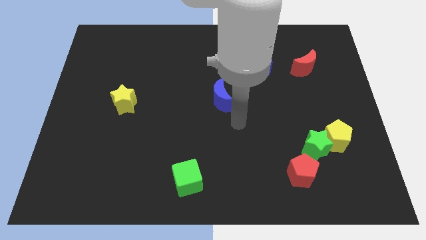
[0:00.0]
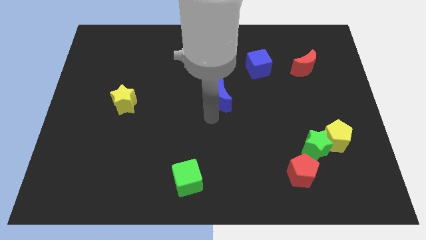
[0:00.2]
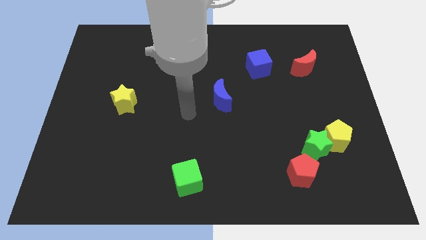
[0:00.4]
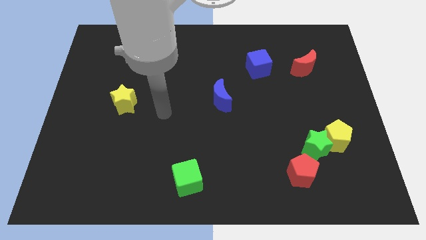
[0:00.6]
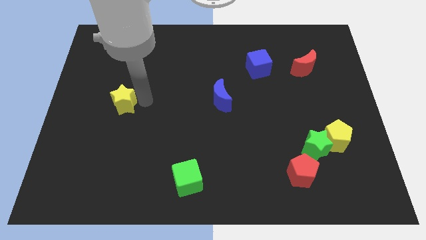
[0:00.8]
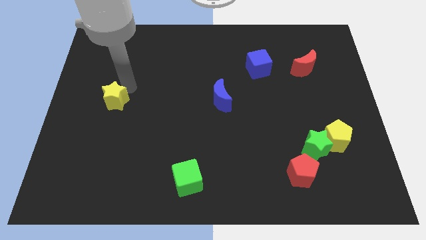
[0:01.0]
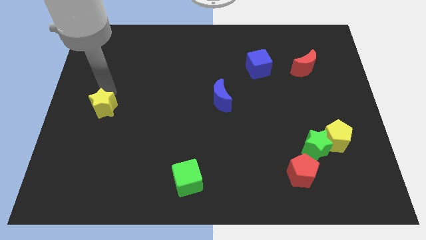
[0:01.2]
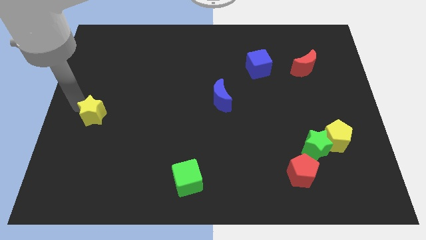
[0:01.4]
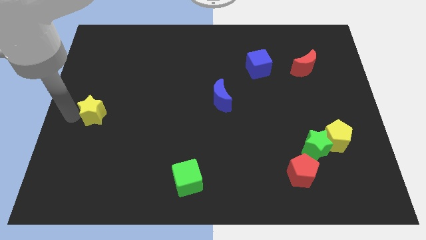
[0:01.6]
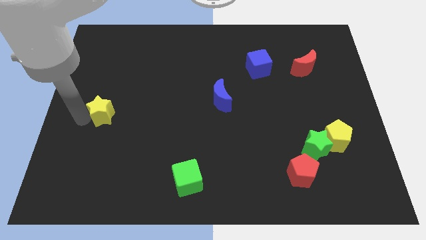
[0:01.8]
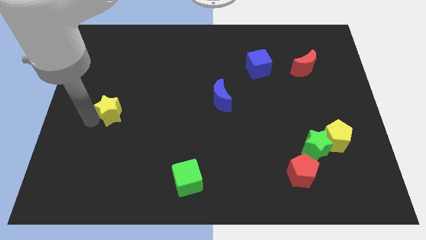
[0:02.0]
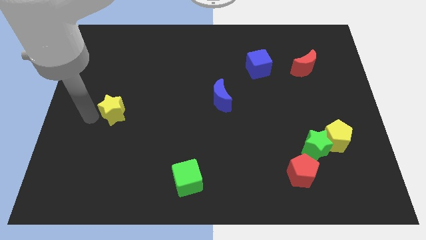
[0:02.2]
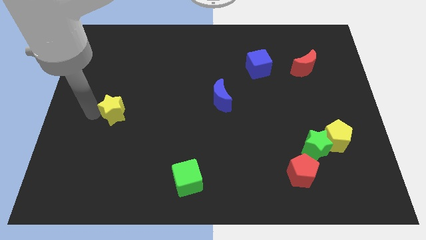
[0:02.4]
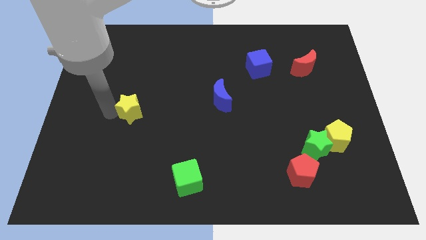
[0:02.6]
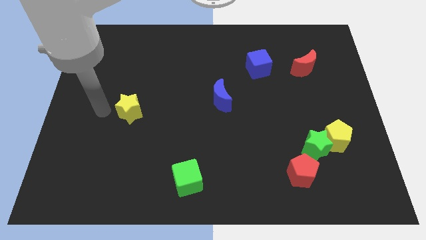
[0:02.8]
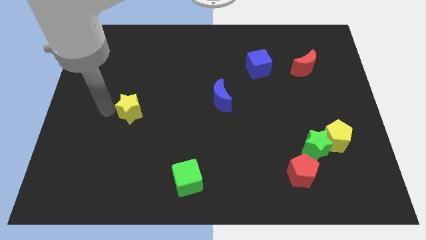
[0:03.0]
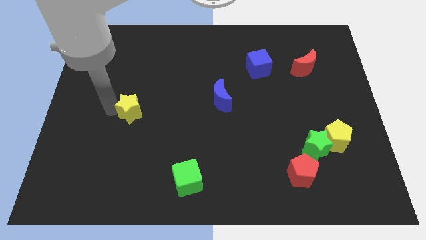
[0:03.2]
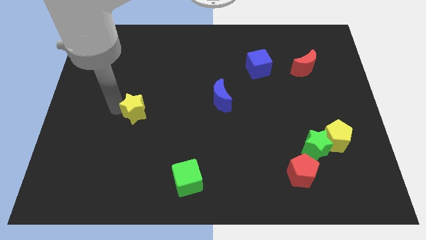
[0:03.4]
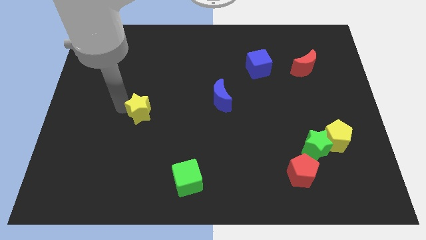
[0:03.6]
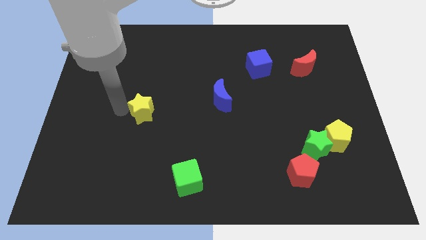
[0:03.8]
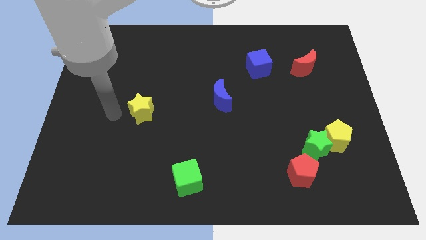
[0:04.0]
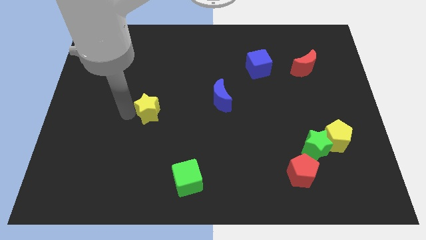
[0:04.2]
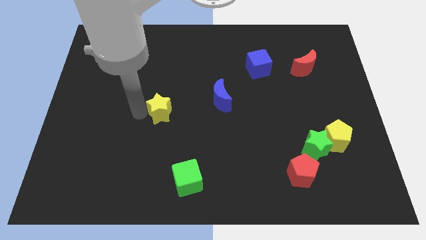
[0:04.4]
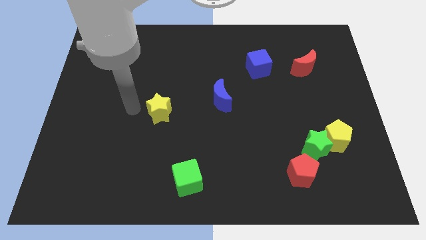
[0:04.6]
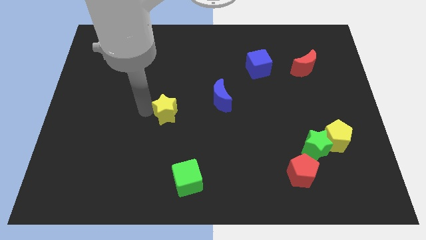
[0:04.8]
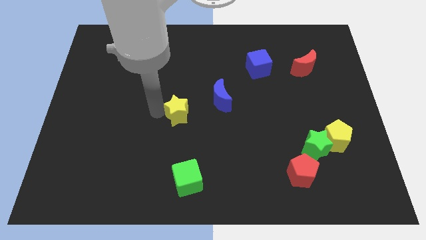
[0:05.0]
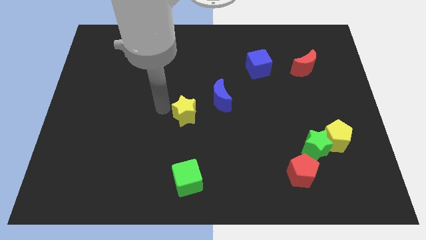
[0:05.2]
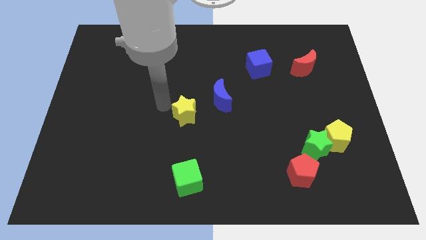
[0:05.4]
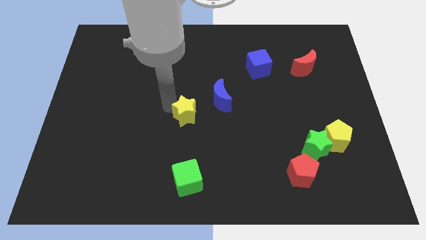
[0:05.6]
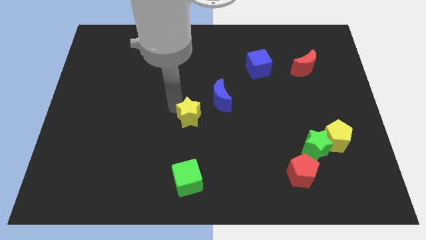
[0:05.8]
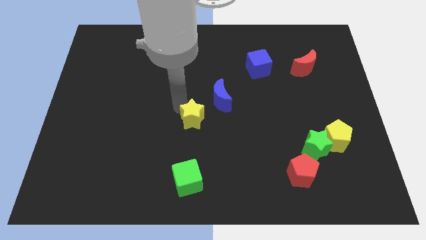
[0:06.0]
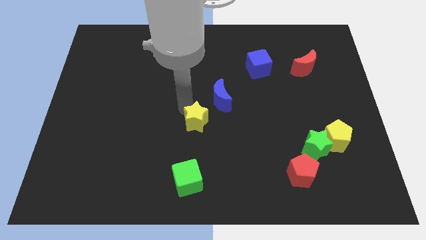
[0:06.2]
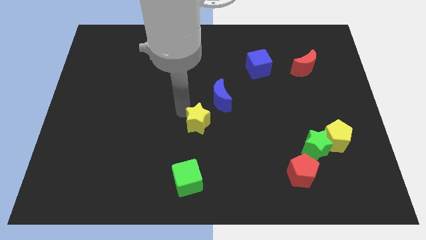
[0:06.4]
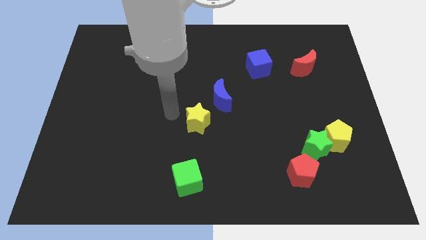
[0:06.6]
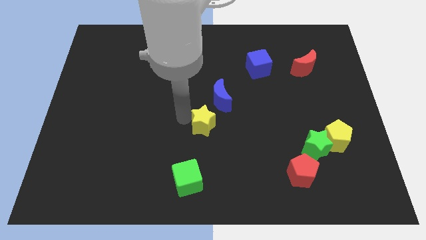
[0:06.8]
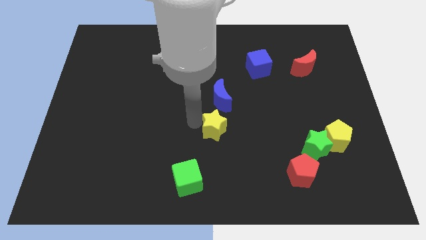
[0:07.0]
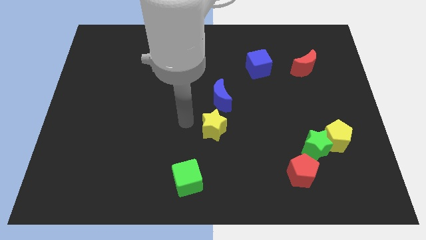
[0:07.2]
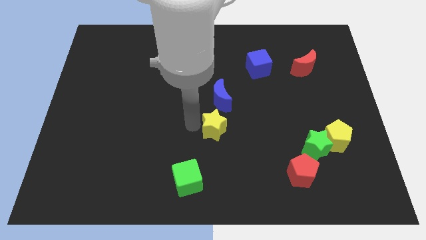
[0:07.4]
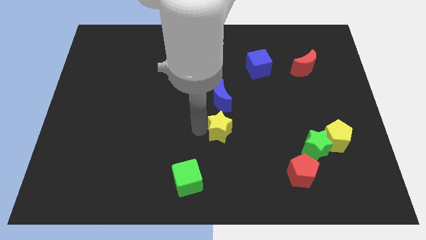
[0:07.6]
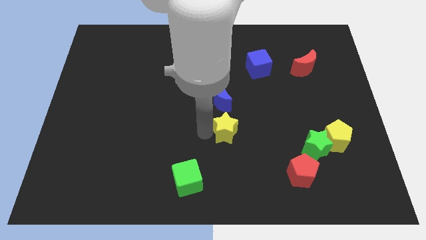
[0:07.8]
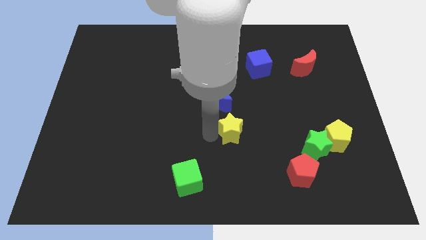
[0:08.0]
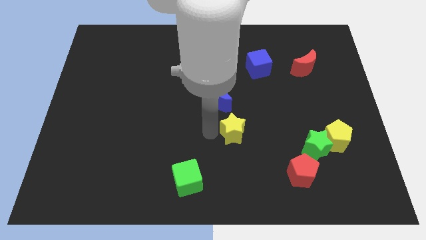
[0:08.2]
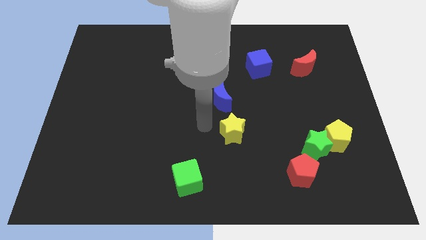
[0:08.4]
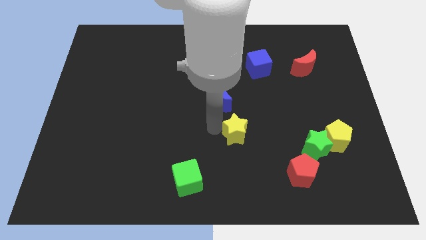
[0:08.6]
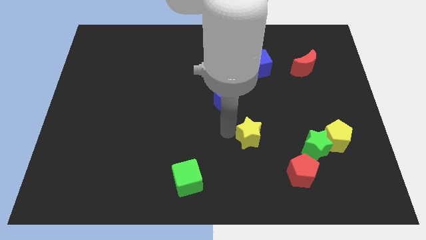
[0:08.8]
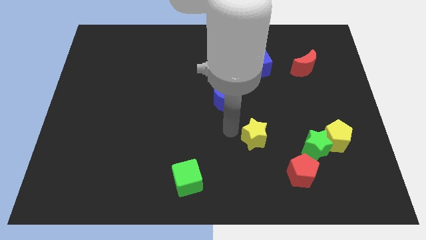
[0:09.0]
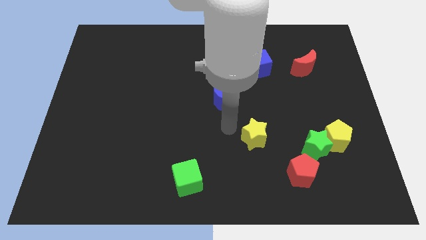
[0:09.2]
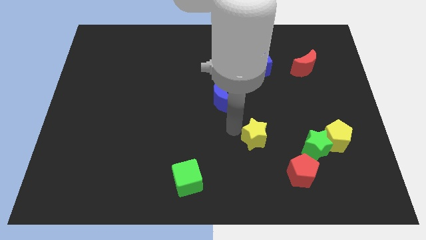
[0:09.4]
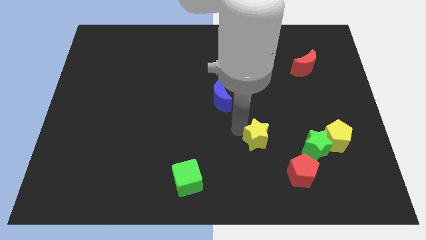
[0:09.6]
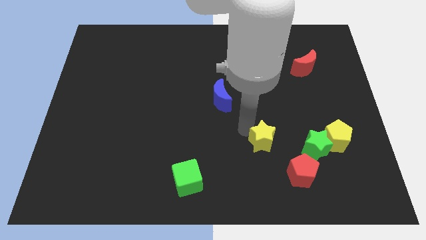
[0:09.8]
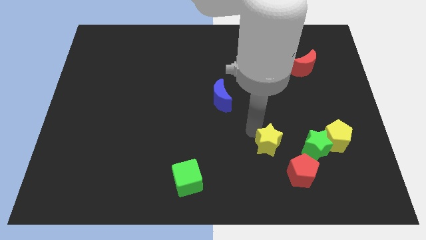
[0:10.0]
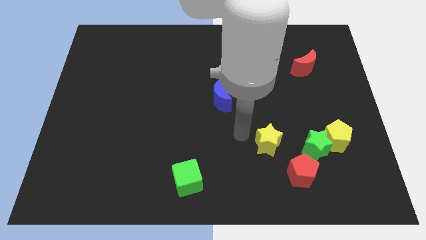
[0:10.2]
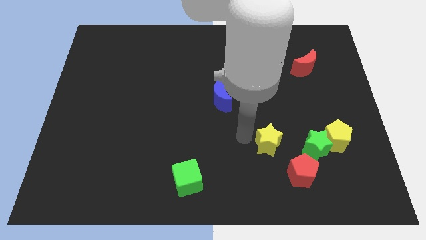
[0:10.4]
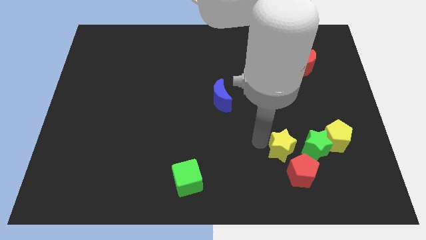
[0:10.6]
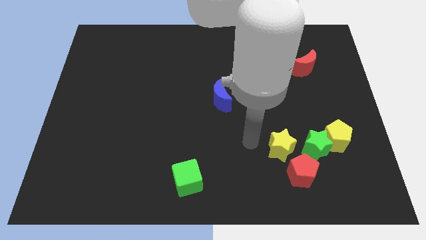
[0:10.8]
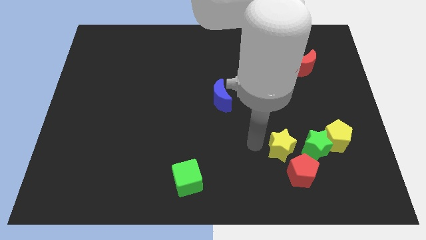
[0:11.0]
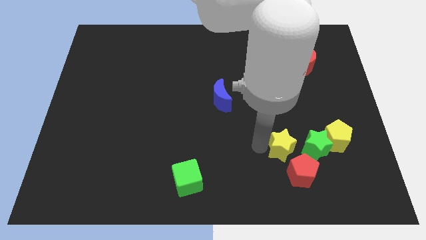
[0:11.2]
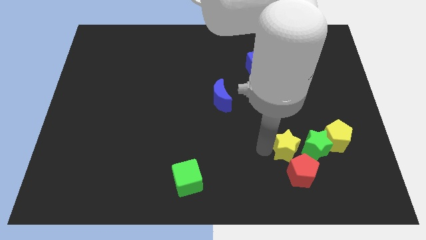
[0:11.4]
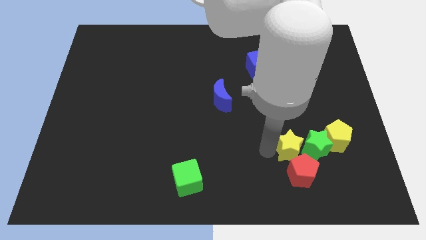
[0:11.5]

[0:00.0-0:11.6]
slide the yellow star next to the green star

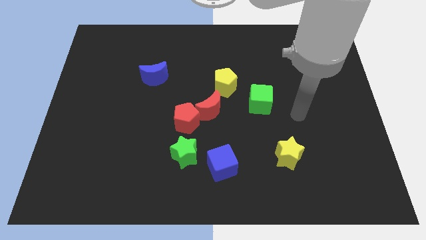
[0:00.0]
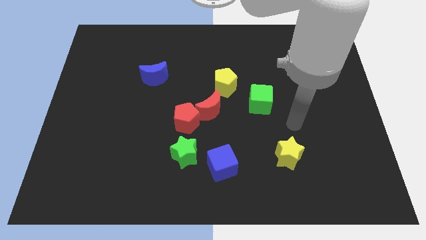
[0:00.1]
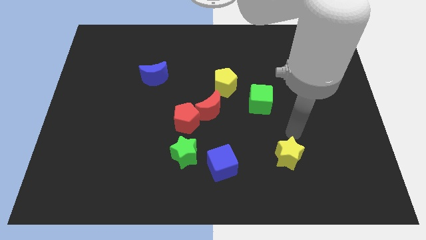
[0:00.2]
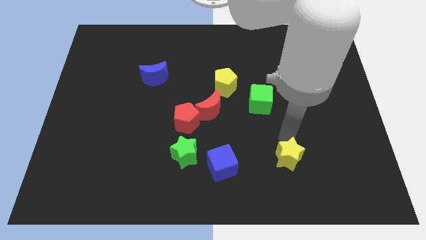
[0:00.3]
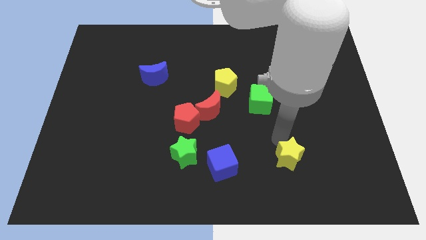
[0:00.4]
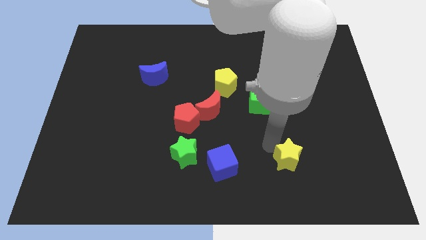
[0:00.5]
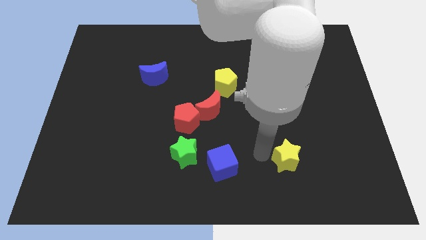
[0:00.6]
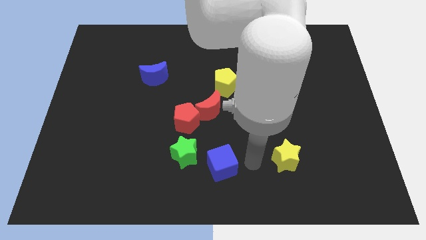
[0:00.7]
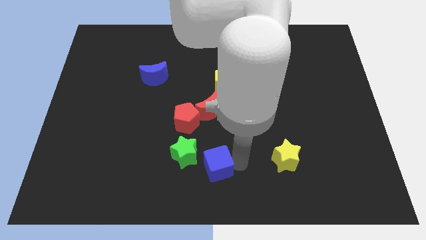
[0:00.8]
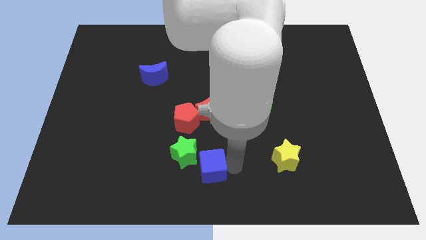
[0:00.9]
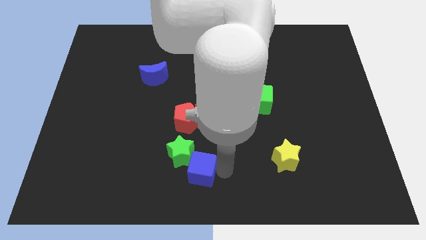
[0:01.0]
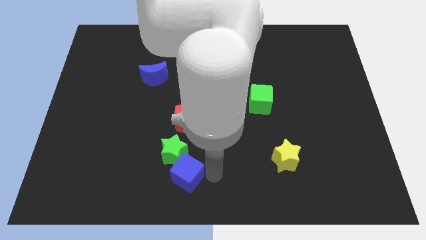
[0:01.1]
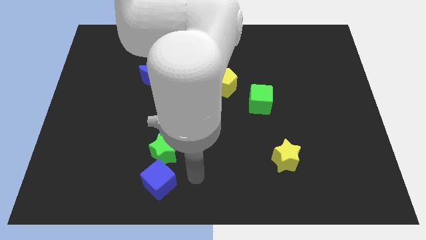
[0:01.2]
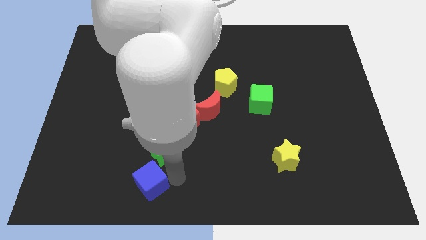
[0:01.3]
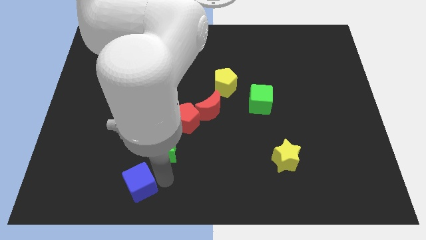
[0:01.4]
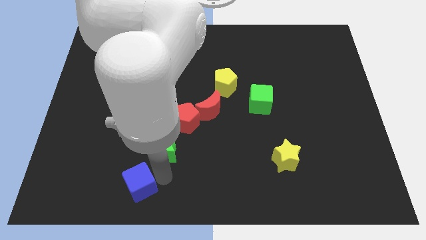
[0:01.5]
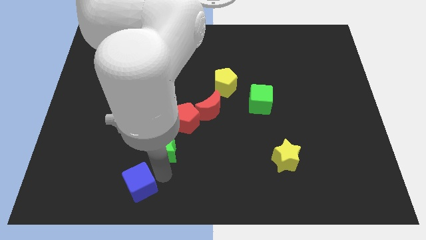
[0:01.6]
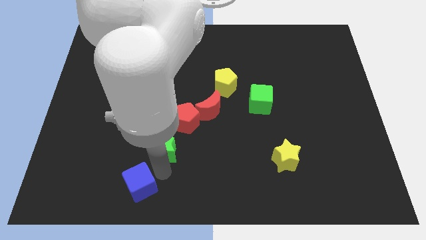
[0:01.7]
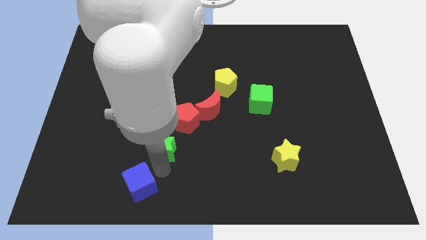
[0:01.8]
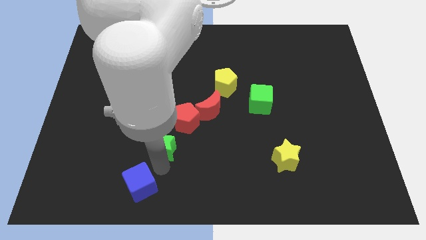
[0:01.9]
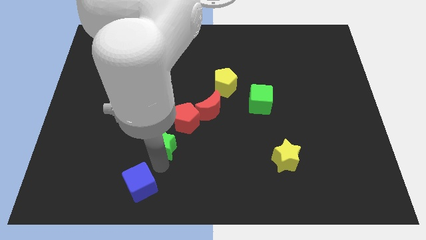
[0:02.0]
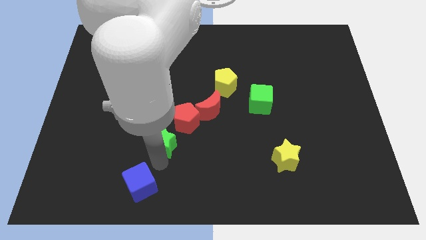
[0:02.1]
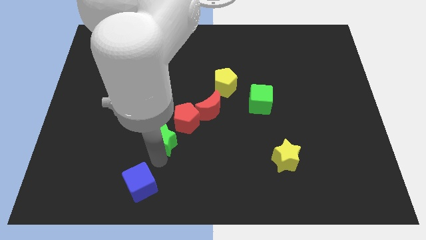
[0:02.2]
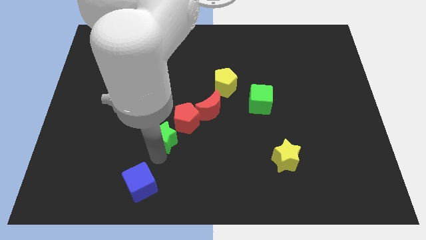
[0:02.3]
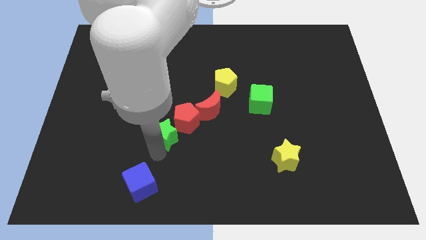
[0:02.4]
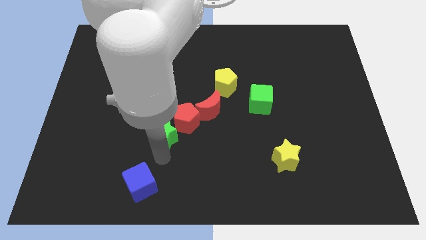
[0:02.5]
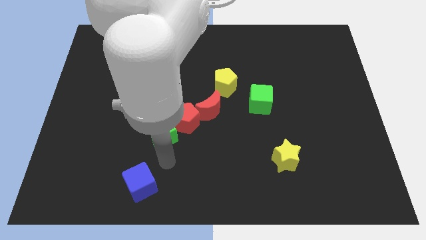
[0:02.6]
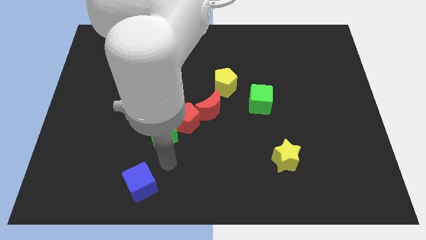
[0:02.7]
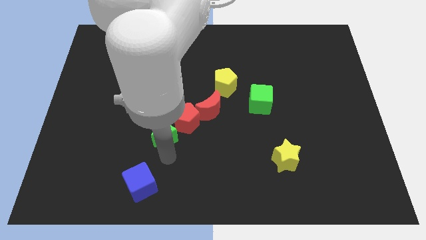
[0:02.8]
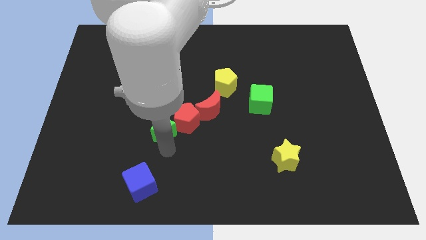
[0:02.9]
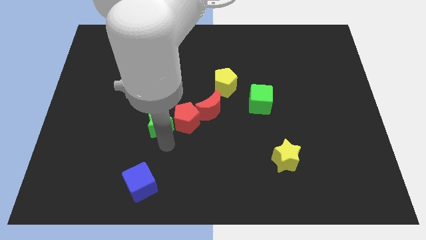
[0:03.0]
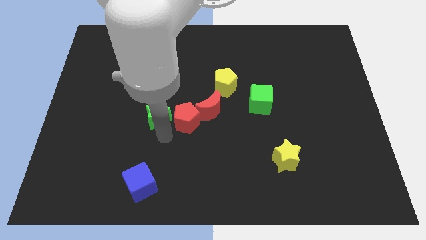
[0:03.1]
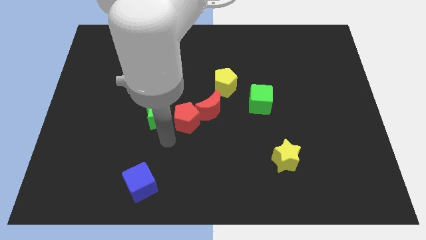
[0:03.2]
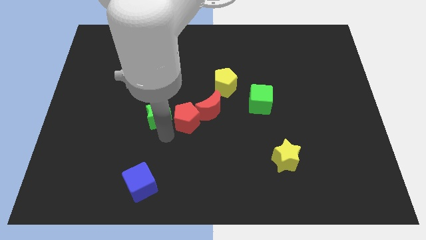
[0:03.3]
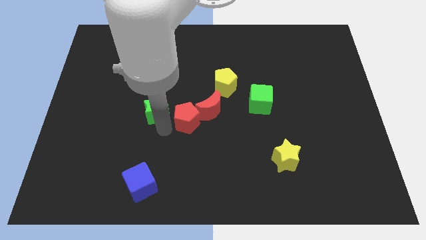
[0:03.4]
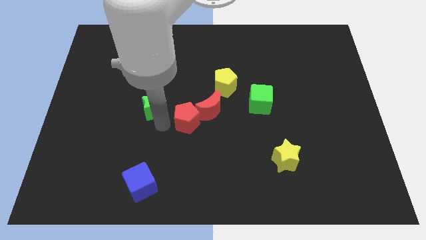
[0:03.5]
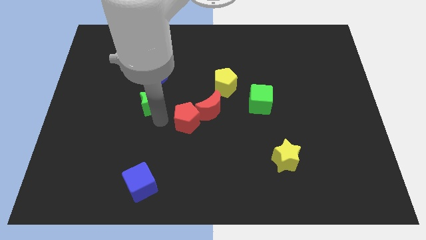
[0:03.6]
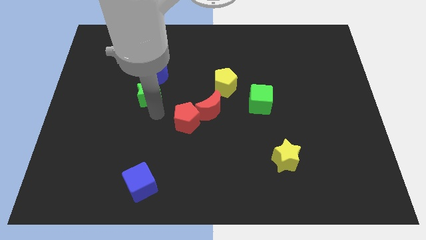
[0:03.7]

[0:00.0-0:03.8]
move the green star close to the blue moon
